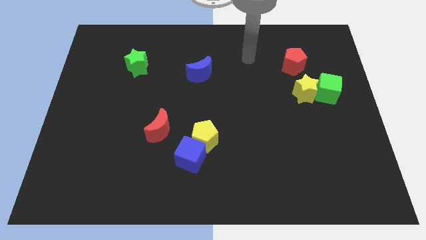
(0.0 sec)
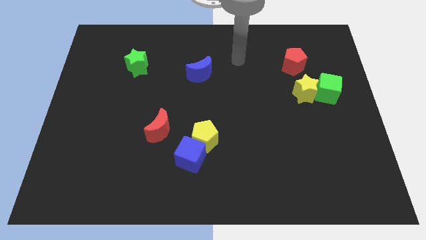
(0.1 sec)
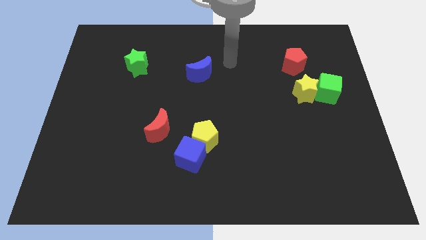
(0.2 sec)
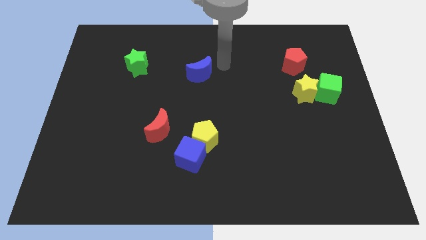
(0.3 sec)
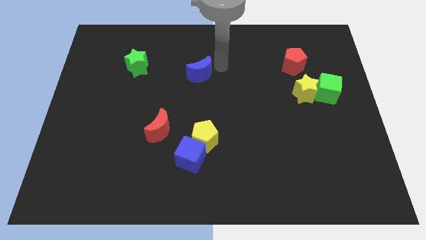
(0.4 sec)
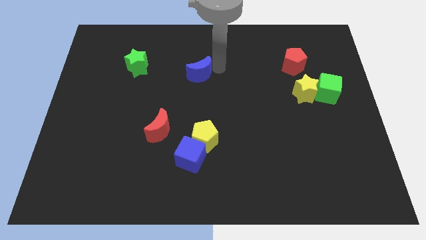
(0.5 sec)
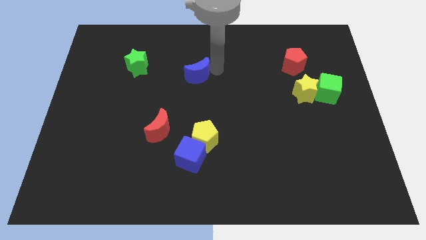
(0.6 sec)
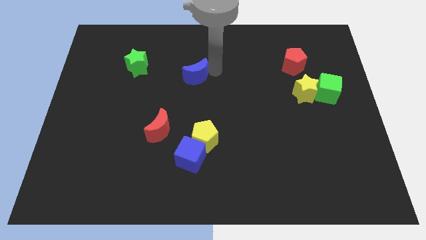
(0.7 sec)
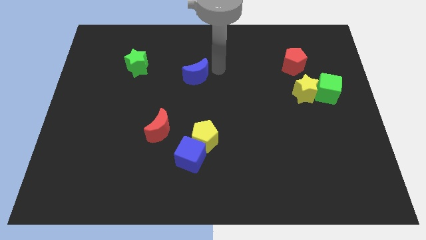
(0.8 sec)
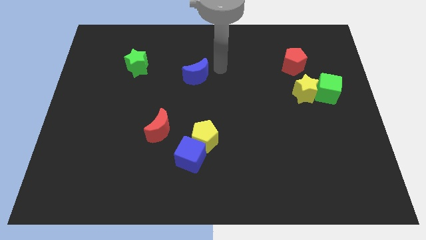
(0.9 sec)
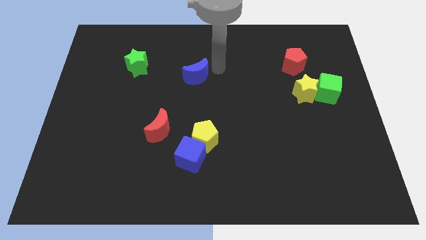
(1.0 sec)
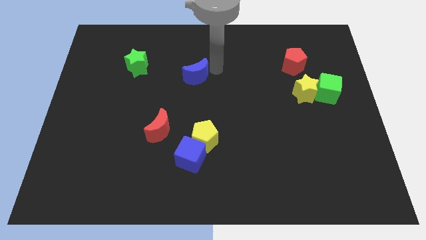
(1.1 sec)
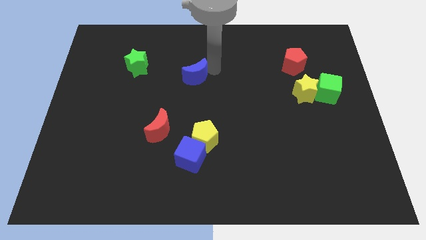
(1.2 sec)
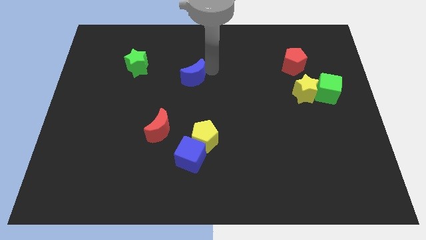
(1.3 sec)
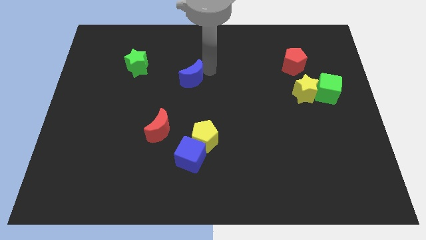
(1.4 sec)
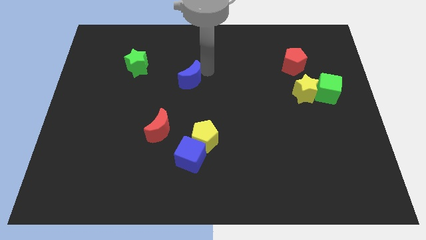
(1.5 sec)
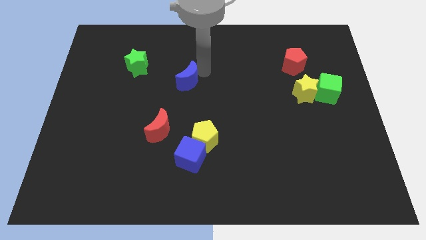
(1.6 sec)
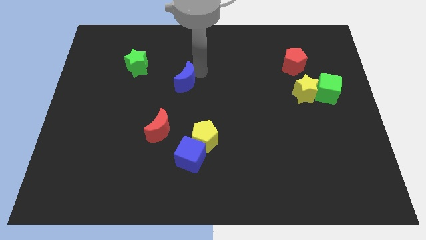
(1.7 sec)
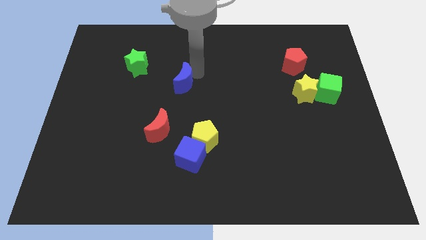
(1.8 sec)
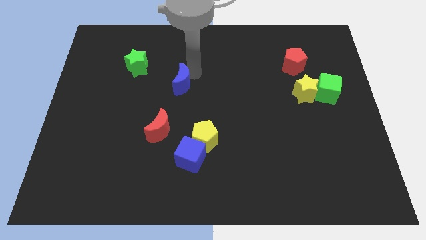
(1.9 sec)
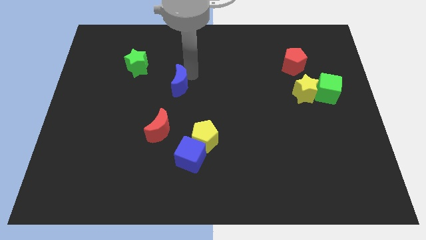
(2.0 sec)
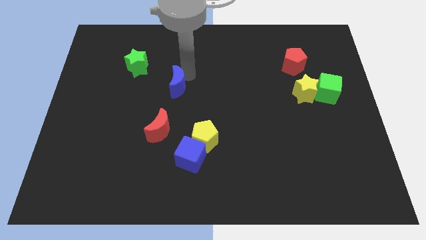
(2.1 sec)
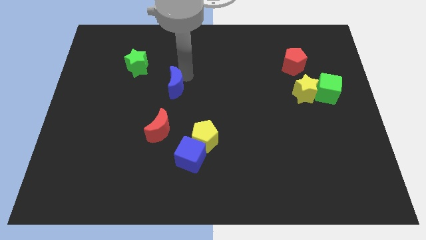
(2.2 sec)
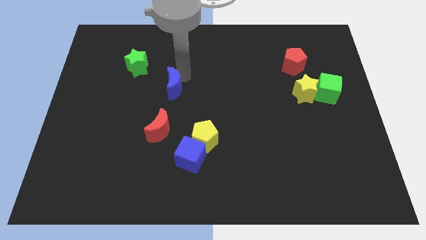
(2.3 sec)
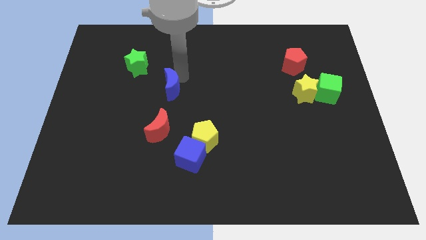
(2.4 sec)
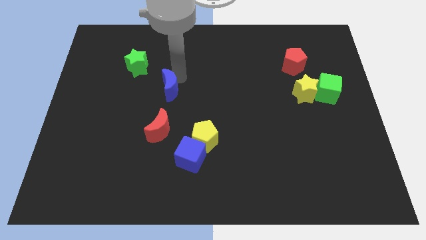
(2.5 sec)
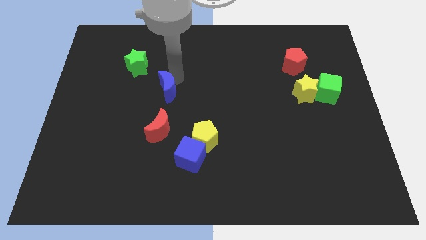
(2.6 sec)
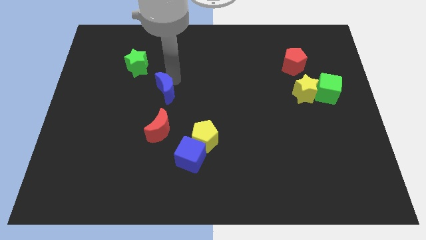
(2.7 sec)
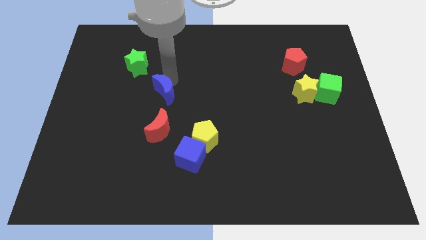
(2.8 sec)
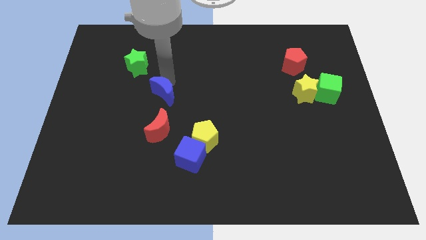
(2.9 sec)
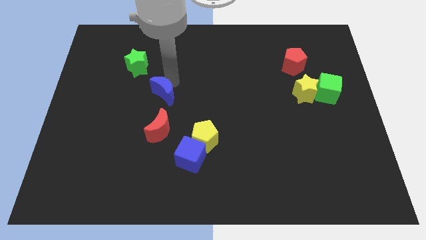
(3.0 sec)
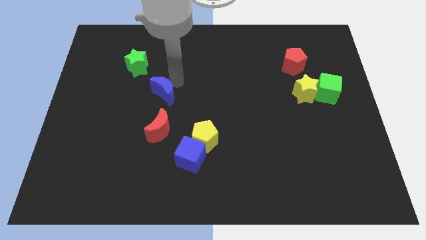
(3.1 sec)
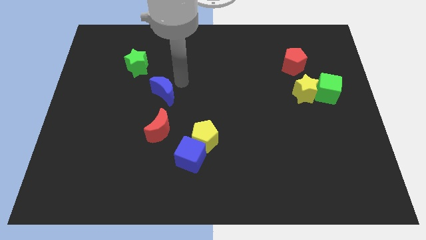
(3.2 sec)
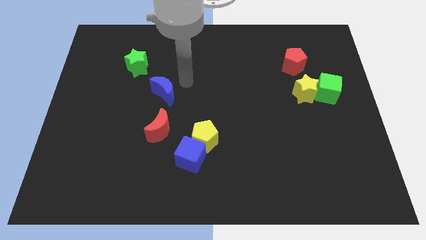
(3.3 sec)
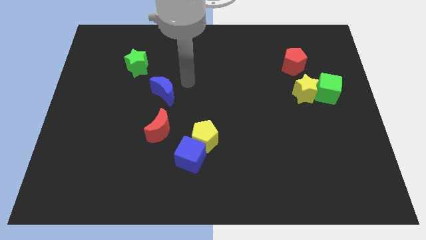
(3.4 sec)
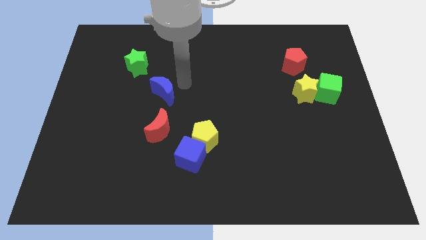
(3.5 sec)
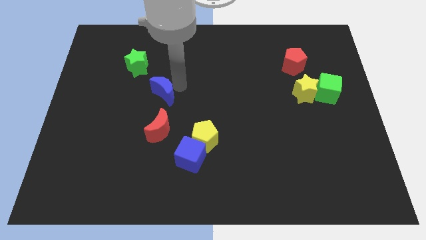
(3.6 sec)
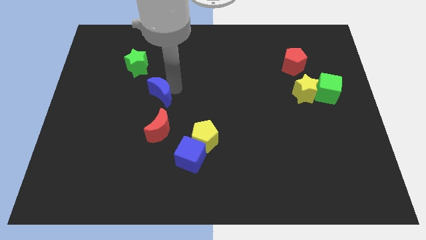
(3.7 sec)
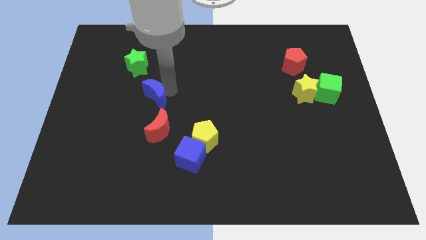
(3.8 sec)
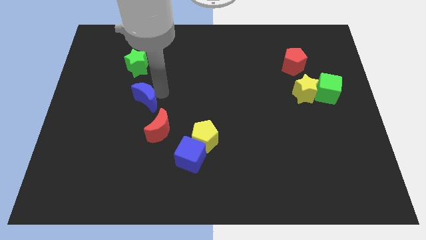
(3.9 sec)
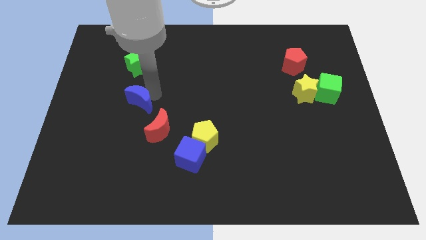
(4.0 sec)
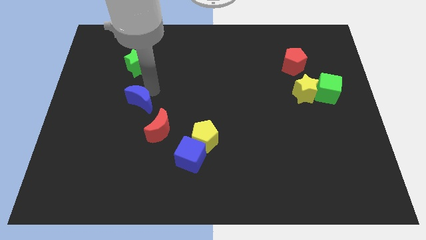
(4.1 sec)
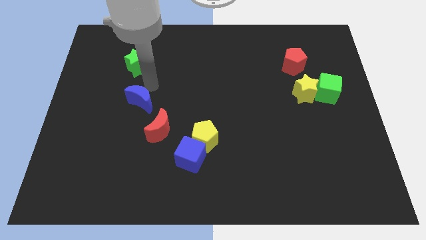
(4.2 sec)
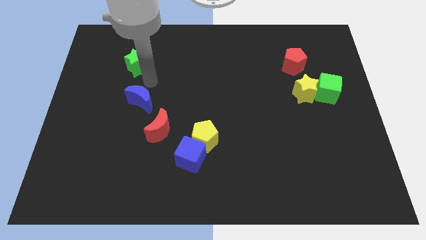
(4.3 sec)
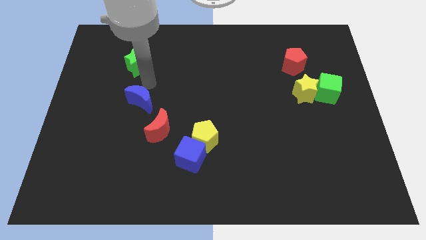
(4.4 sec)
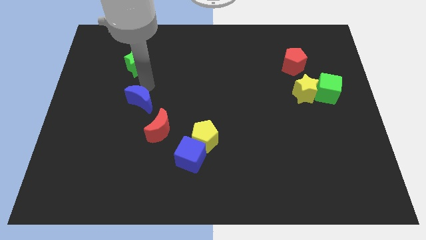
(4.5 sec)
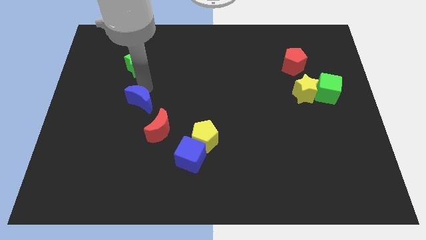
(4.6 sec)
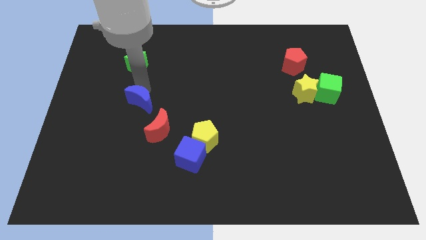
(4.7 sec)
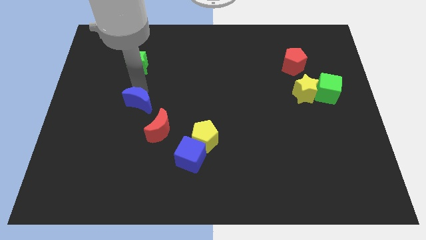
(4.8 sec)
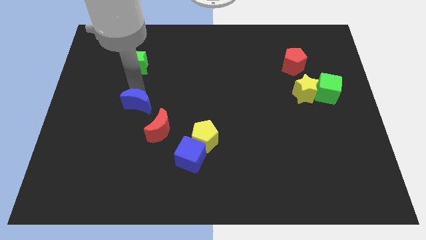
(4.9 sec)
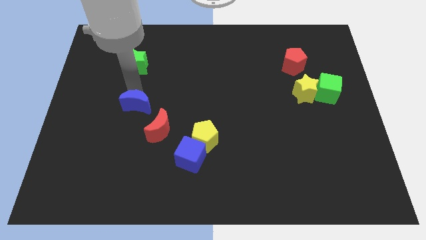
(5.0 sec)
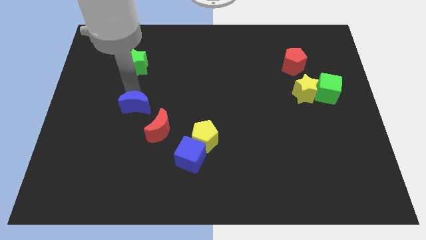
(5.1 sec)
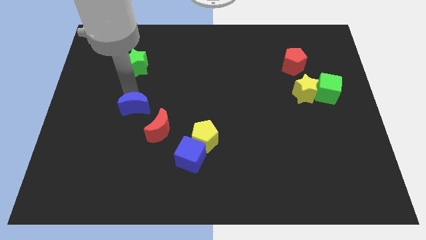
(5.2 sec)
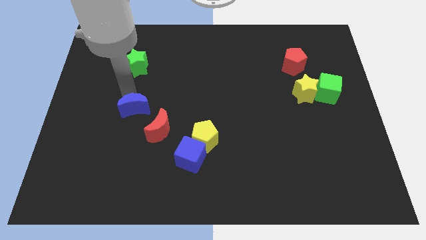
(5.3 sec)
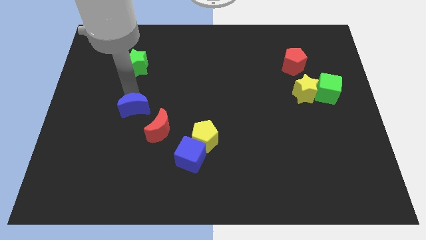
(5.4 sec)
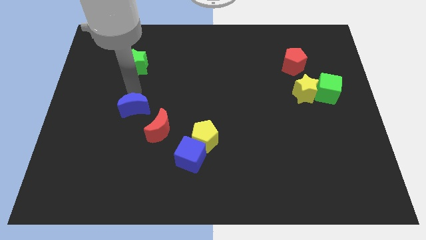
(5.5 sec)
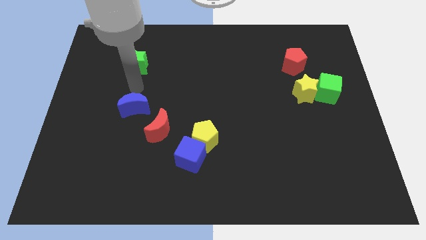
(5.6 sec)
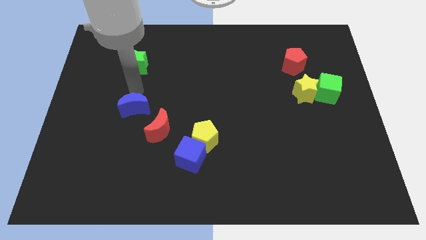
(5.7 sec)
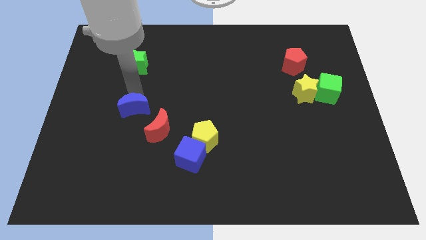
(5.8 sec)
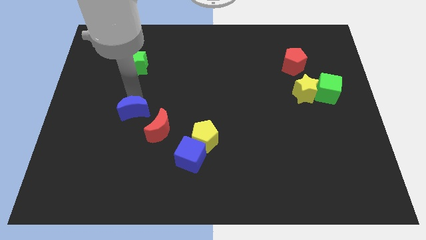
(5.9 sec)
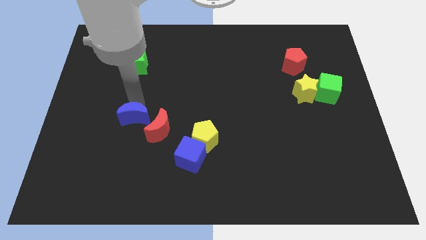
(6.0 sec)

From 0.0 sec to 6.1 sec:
push the blue moon down and to the left diagonally

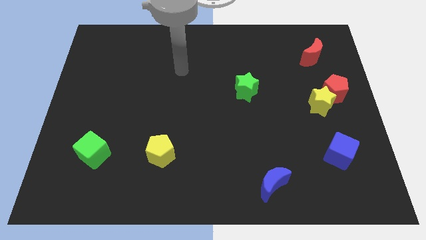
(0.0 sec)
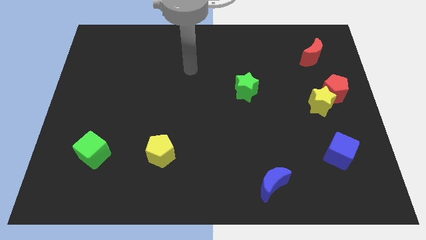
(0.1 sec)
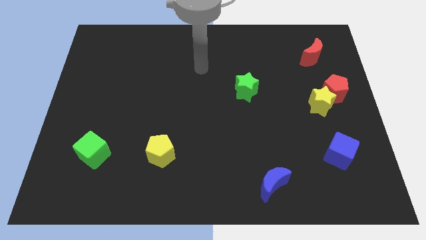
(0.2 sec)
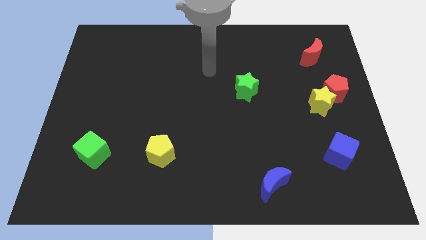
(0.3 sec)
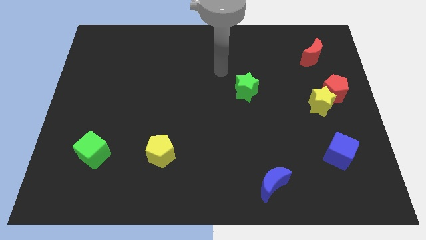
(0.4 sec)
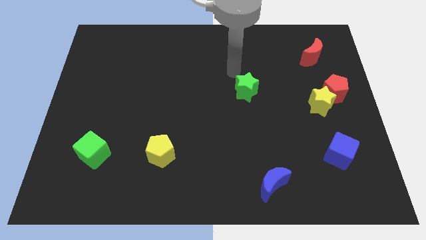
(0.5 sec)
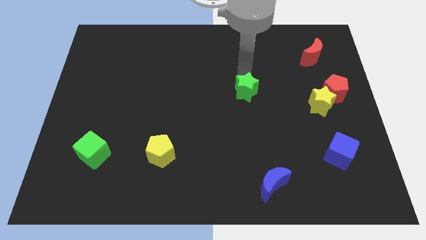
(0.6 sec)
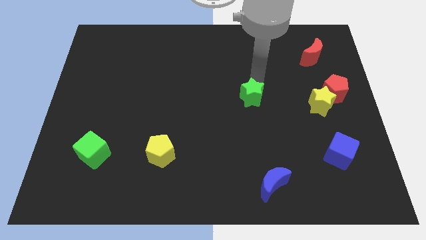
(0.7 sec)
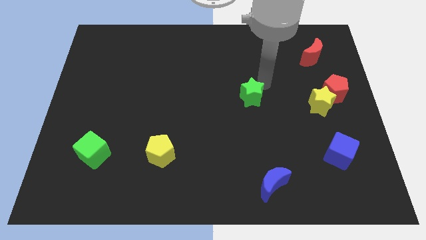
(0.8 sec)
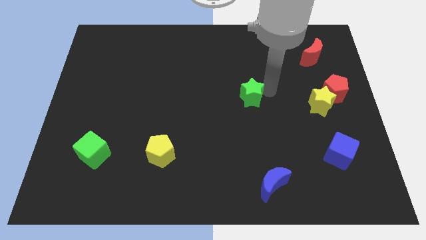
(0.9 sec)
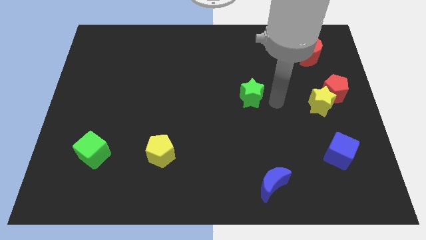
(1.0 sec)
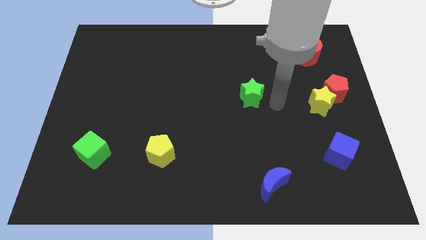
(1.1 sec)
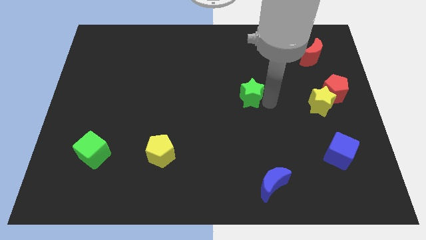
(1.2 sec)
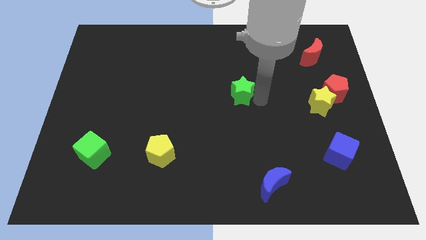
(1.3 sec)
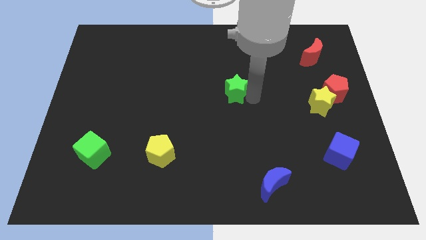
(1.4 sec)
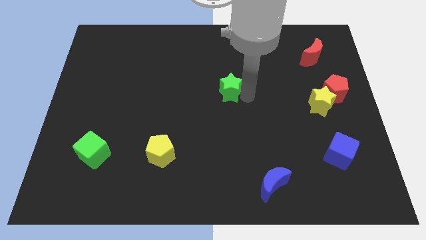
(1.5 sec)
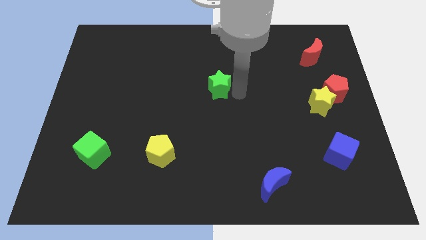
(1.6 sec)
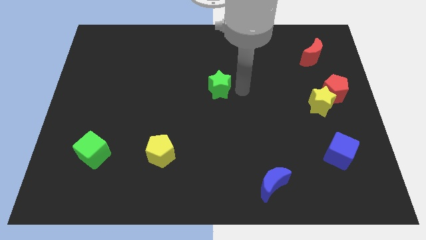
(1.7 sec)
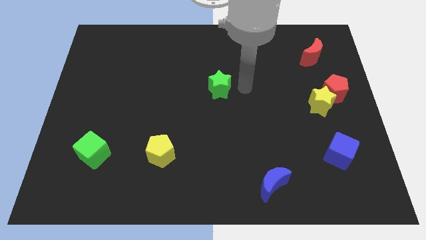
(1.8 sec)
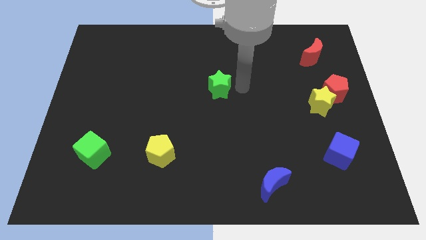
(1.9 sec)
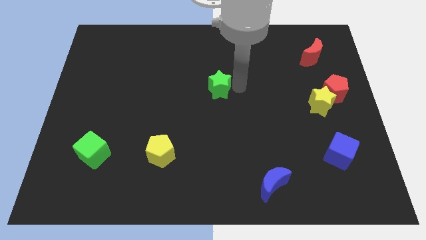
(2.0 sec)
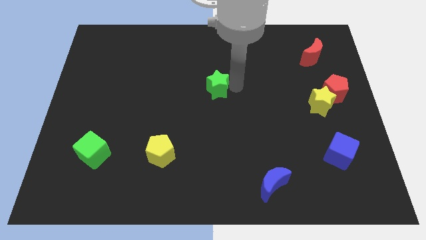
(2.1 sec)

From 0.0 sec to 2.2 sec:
slightly push the green star to the left

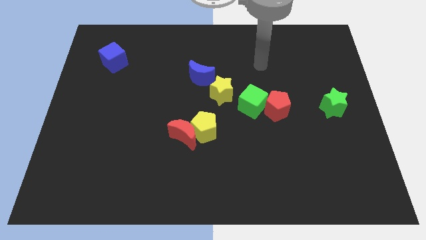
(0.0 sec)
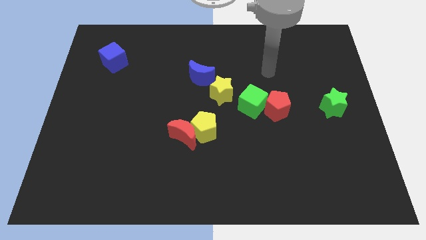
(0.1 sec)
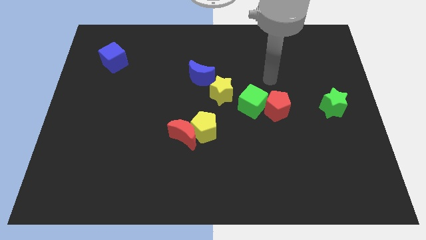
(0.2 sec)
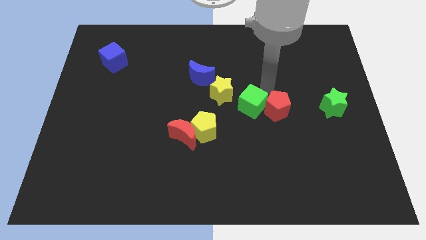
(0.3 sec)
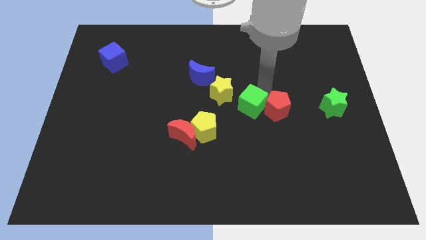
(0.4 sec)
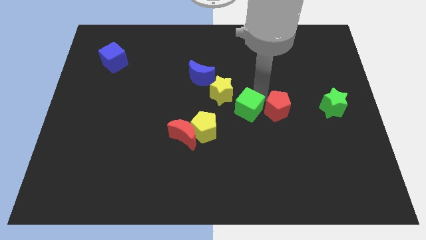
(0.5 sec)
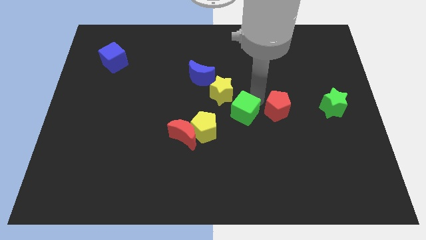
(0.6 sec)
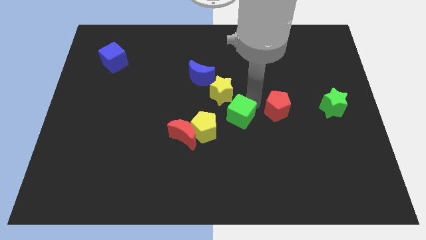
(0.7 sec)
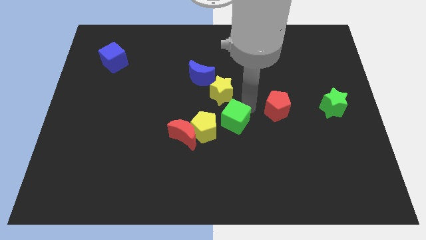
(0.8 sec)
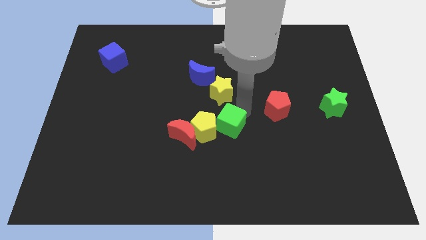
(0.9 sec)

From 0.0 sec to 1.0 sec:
slightly slide the green cube down and to the left
